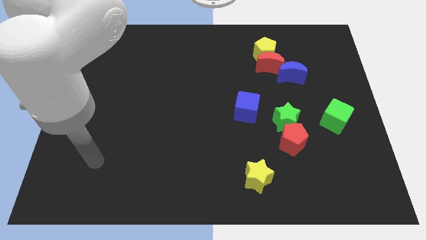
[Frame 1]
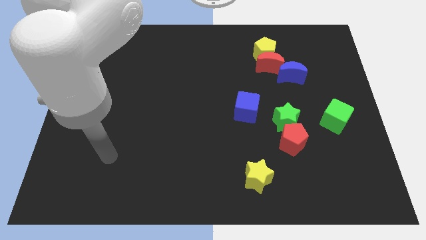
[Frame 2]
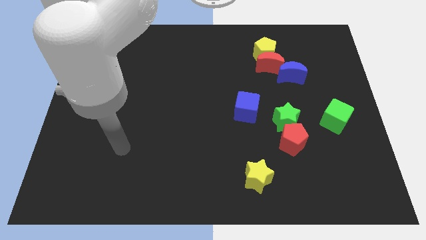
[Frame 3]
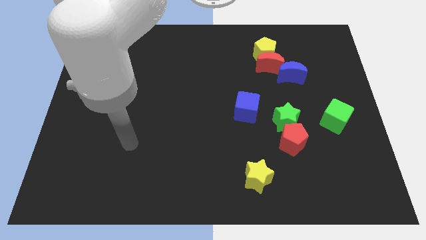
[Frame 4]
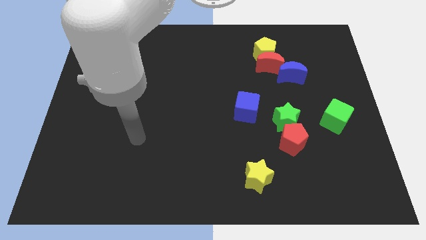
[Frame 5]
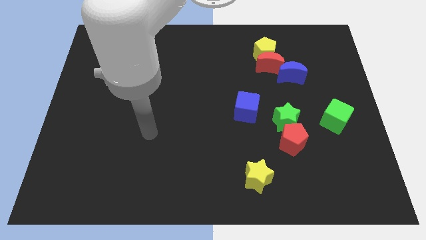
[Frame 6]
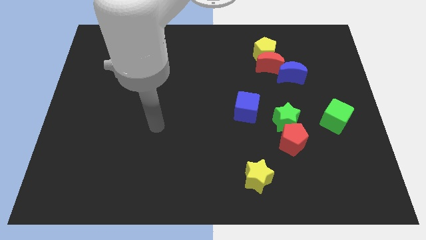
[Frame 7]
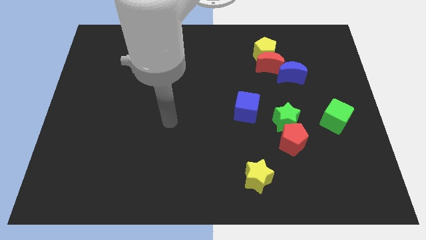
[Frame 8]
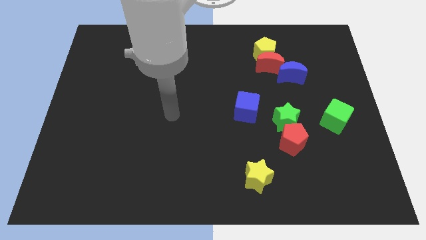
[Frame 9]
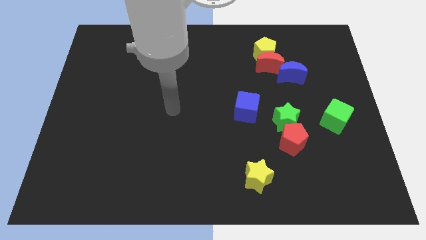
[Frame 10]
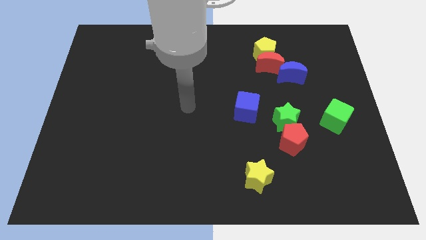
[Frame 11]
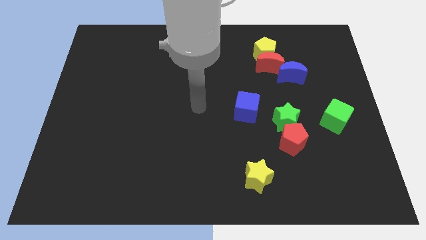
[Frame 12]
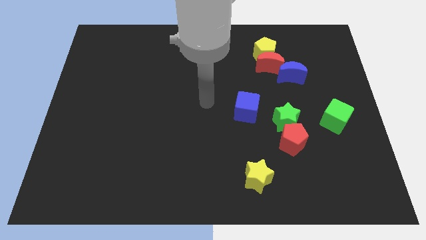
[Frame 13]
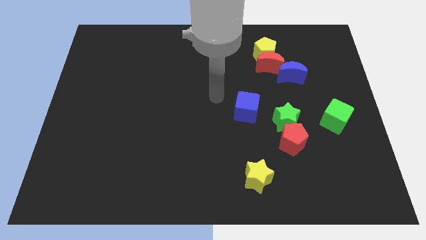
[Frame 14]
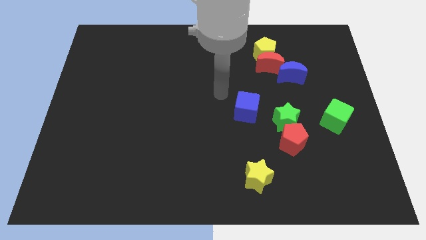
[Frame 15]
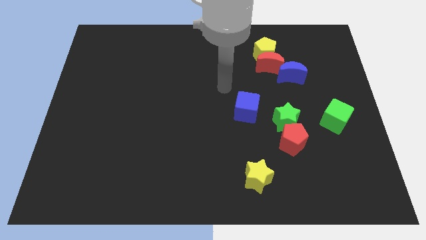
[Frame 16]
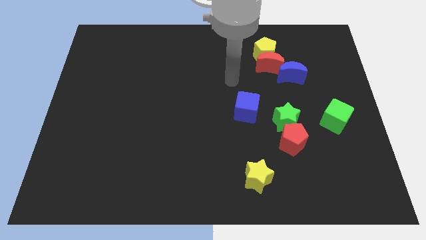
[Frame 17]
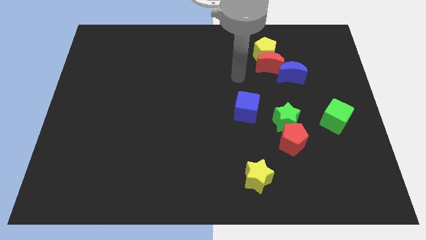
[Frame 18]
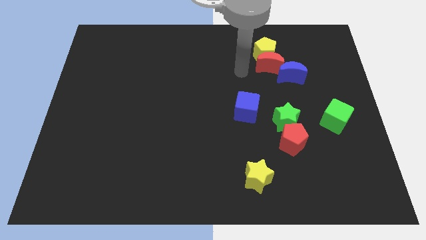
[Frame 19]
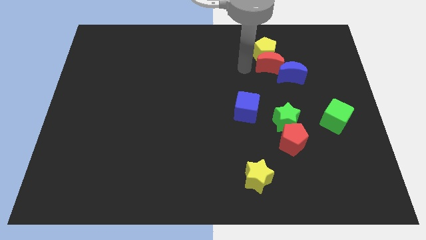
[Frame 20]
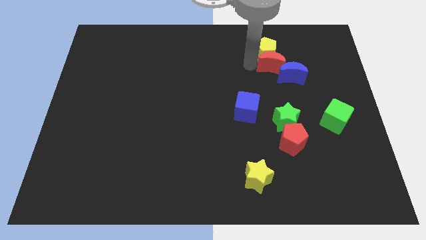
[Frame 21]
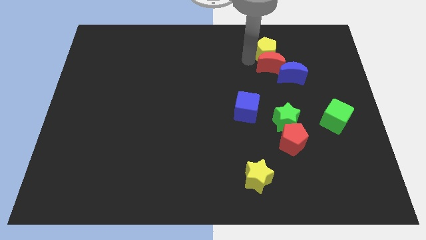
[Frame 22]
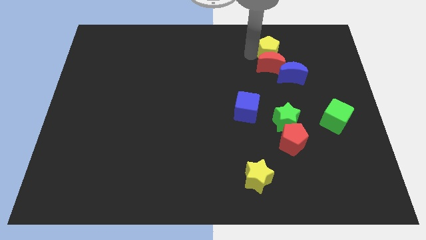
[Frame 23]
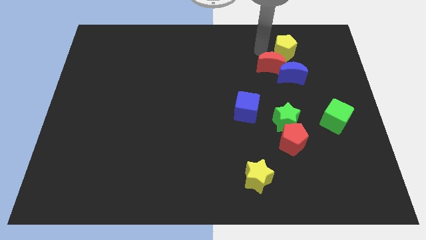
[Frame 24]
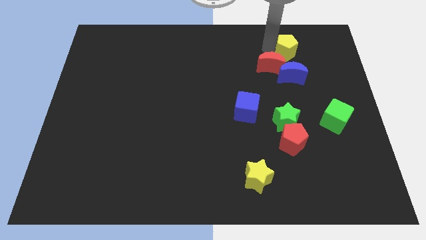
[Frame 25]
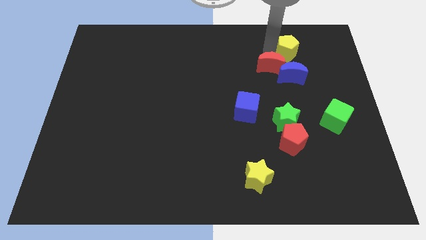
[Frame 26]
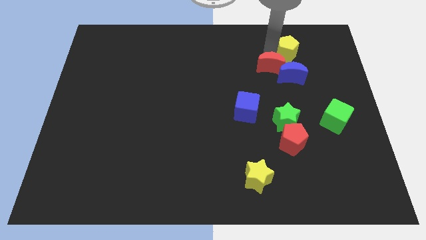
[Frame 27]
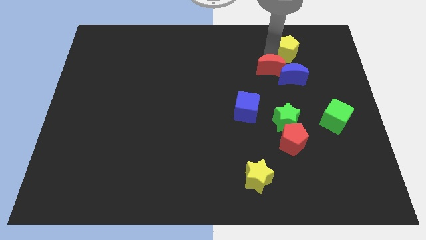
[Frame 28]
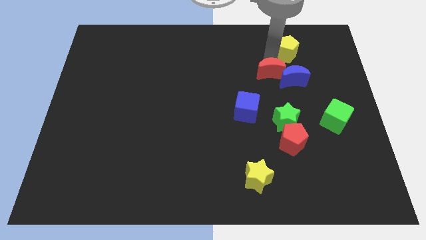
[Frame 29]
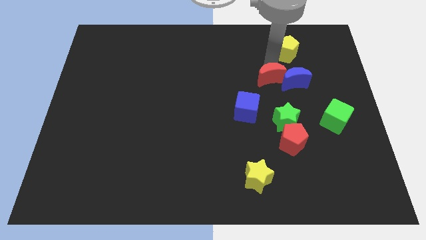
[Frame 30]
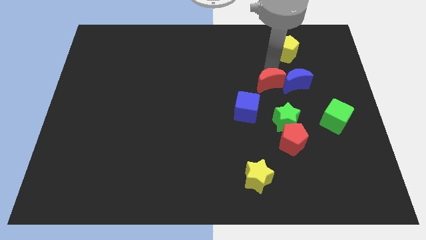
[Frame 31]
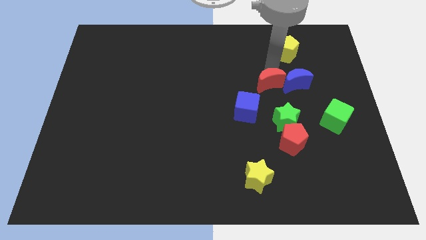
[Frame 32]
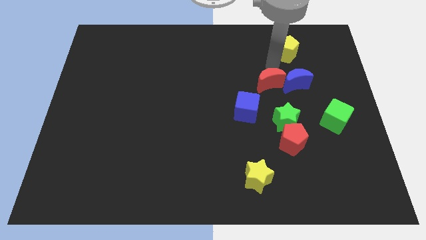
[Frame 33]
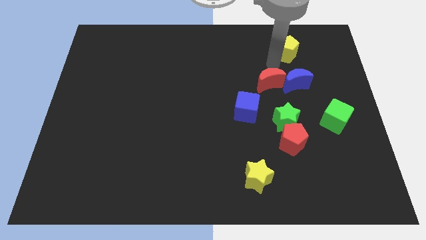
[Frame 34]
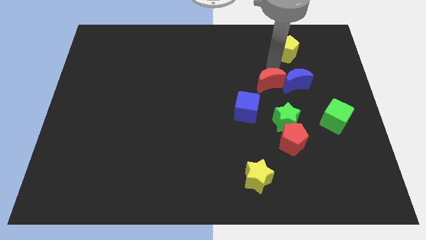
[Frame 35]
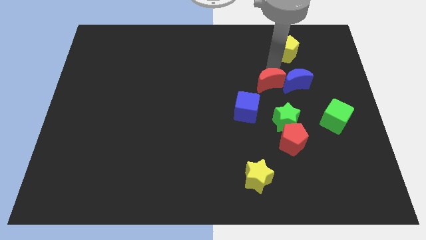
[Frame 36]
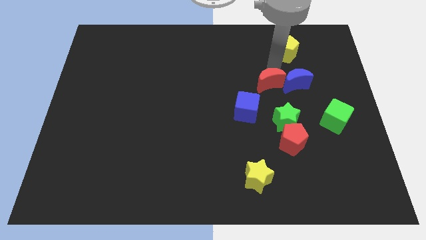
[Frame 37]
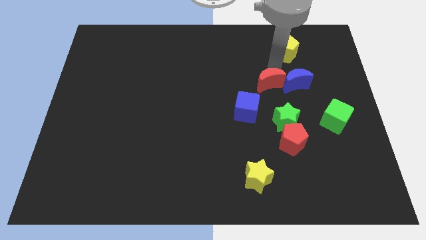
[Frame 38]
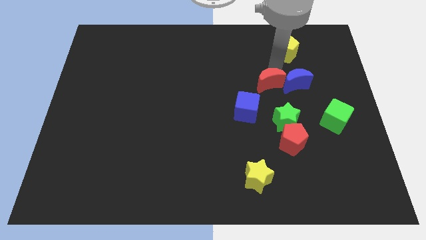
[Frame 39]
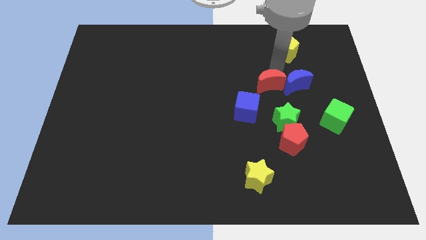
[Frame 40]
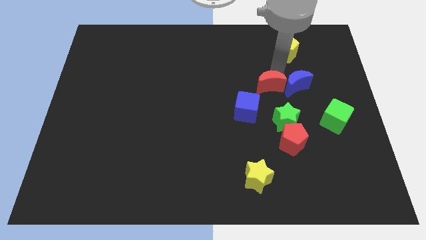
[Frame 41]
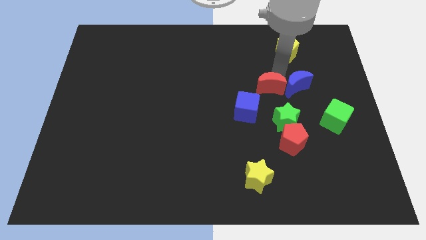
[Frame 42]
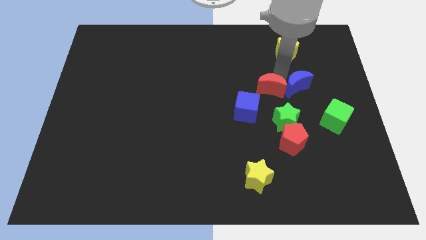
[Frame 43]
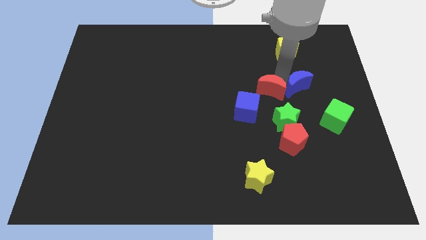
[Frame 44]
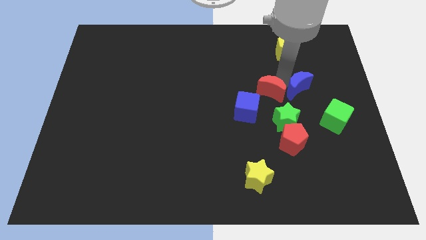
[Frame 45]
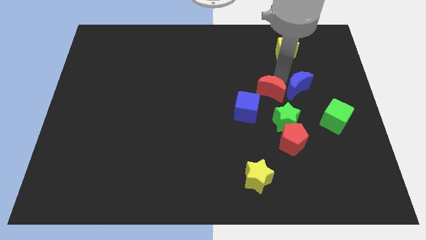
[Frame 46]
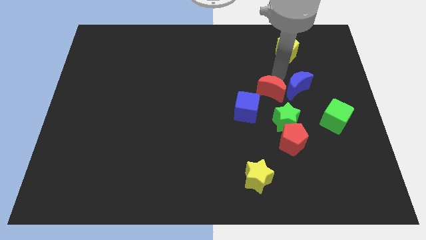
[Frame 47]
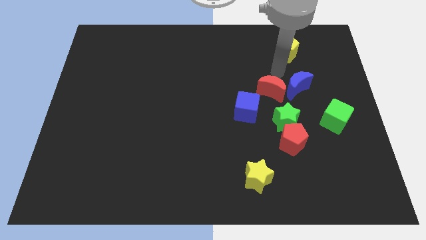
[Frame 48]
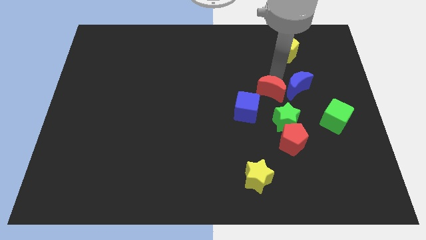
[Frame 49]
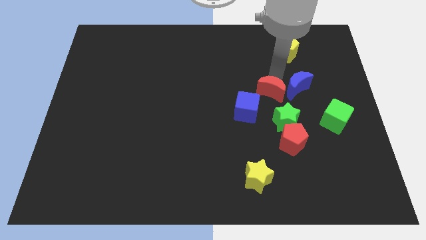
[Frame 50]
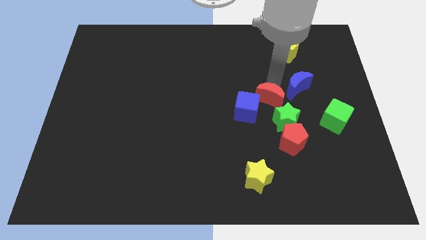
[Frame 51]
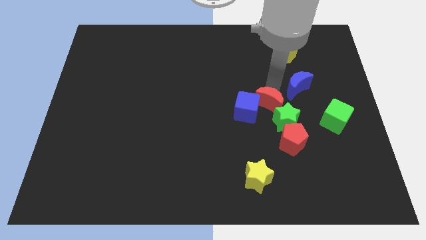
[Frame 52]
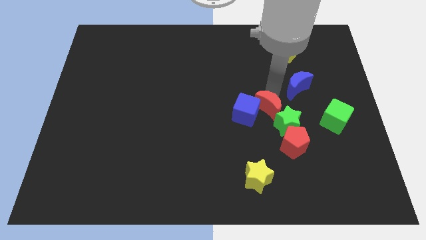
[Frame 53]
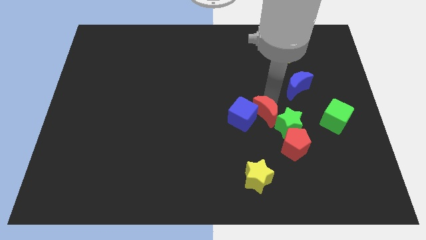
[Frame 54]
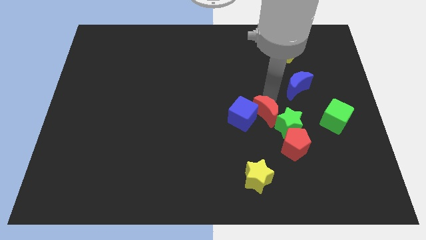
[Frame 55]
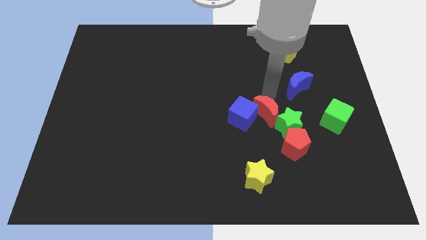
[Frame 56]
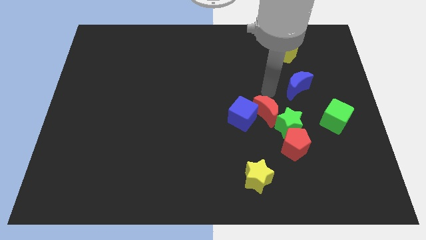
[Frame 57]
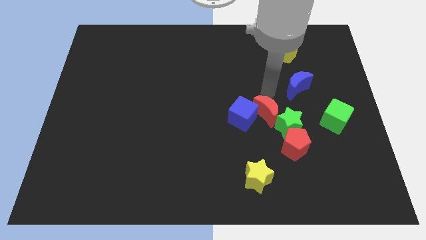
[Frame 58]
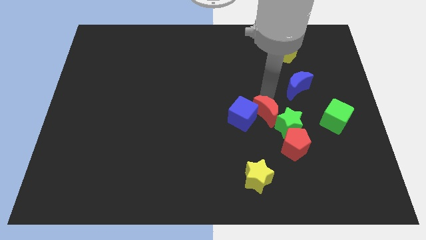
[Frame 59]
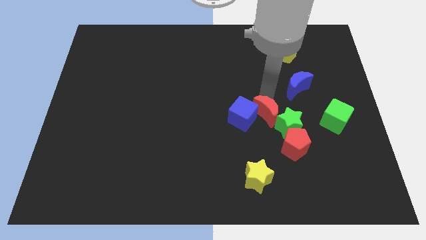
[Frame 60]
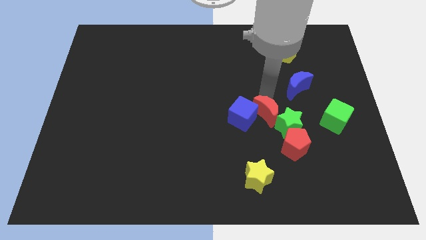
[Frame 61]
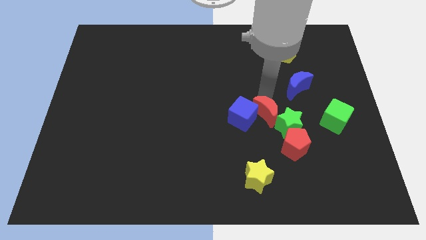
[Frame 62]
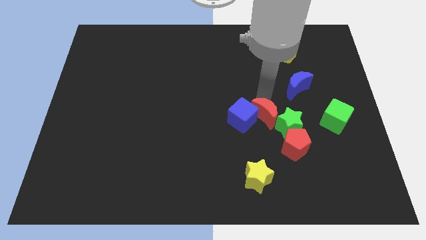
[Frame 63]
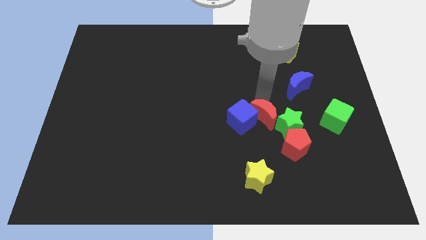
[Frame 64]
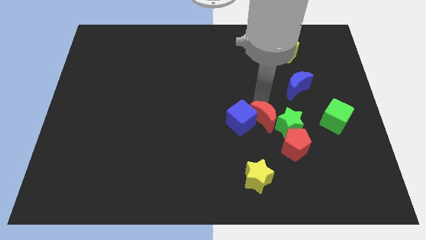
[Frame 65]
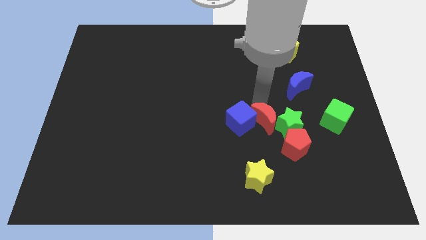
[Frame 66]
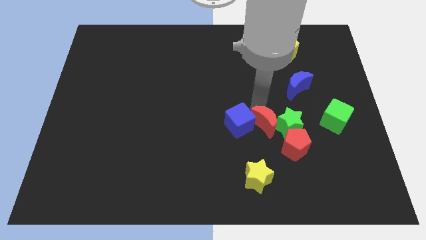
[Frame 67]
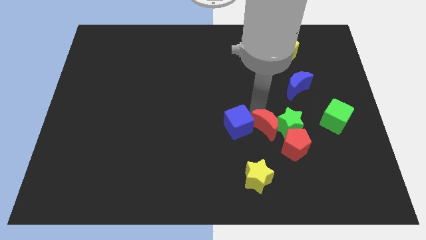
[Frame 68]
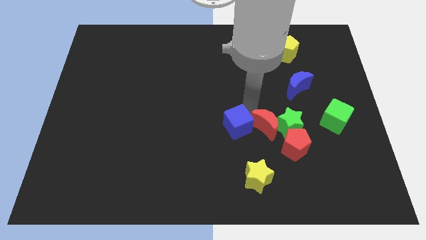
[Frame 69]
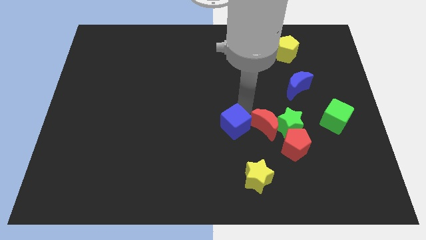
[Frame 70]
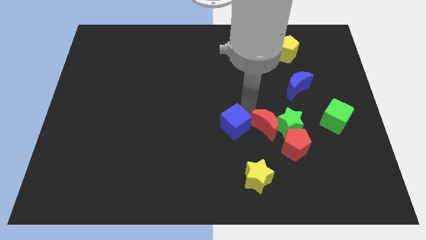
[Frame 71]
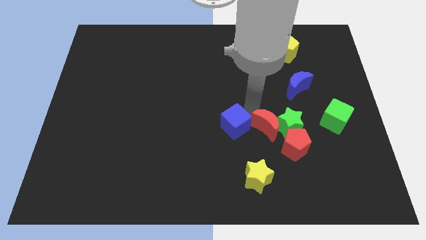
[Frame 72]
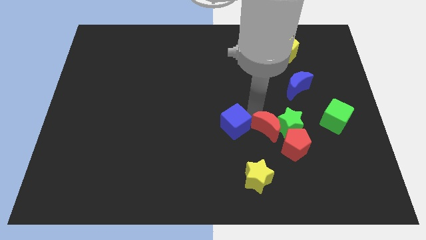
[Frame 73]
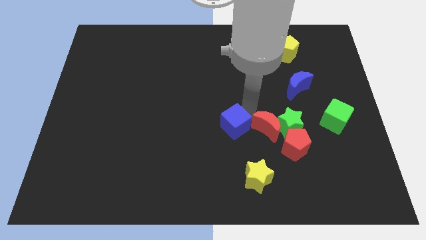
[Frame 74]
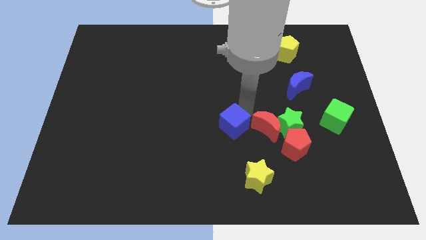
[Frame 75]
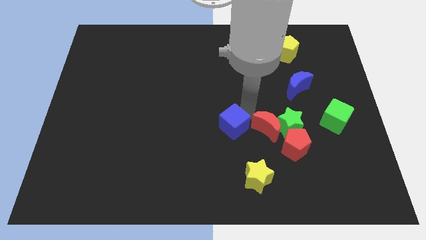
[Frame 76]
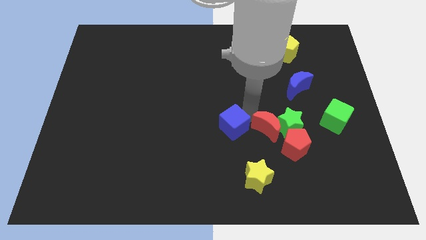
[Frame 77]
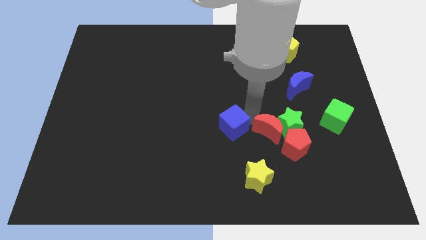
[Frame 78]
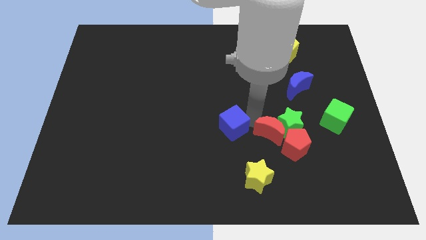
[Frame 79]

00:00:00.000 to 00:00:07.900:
move the red moon towards the red pentagon
